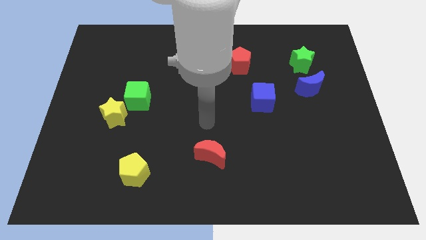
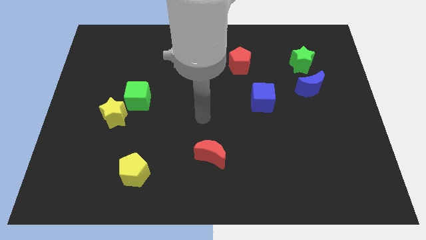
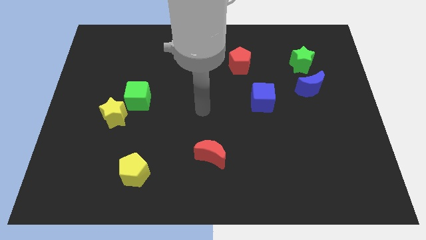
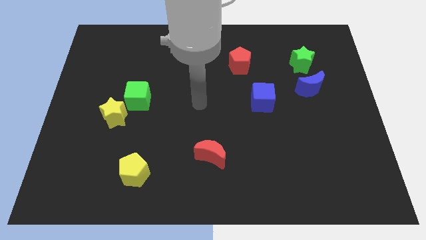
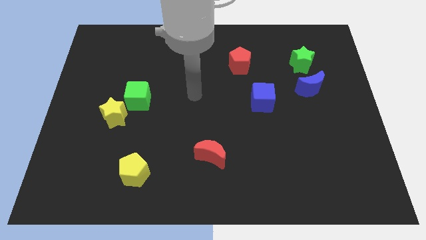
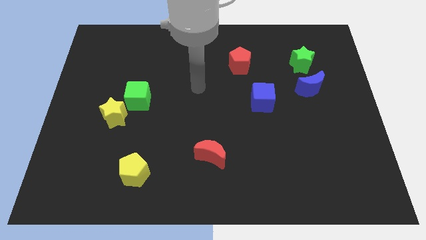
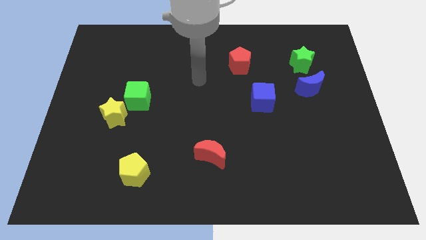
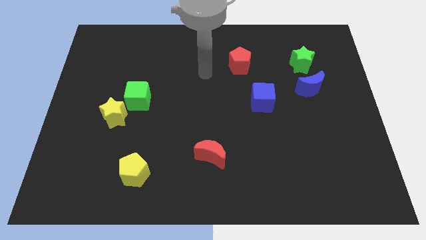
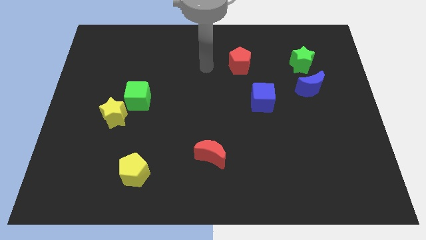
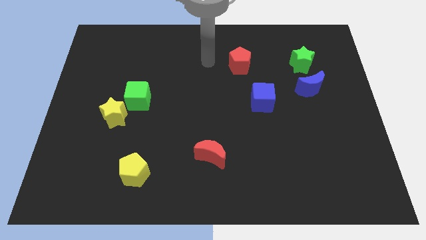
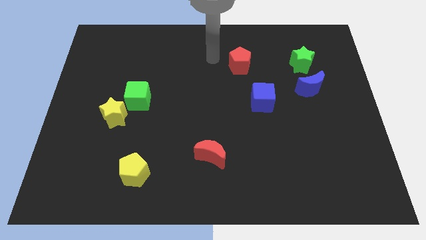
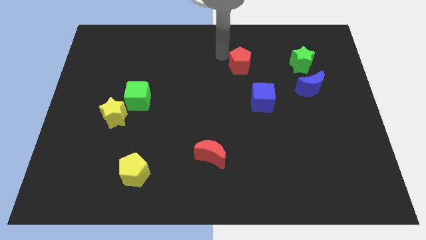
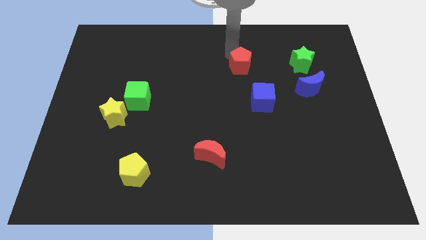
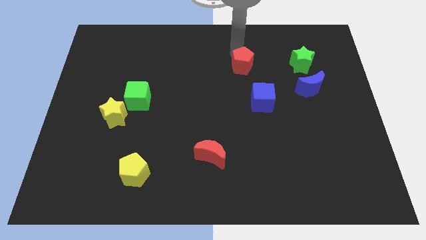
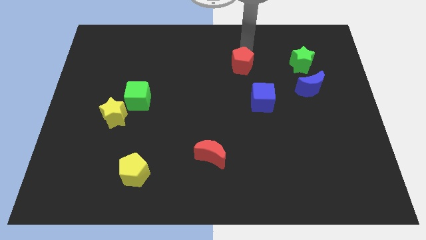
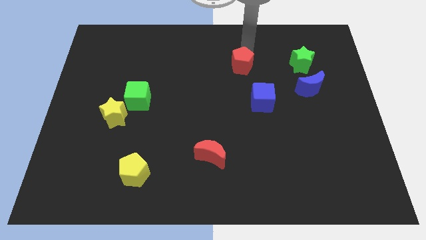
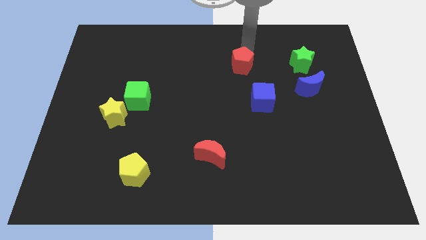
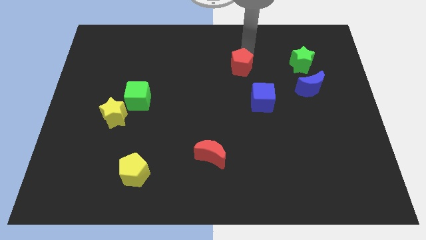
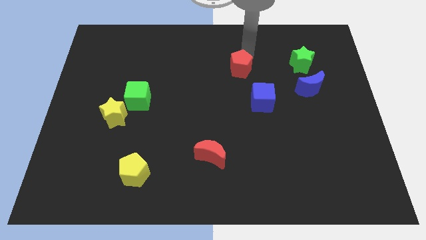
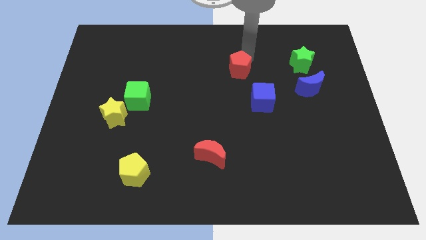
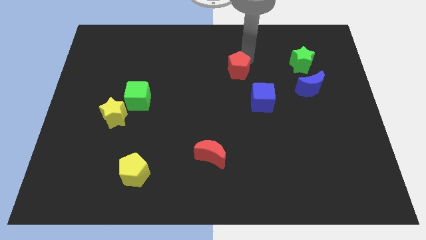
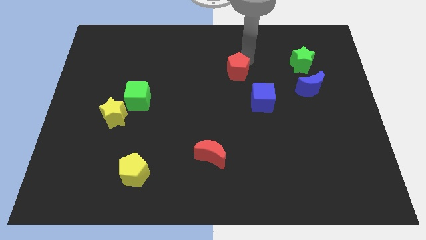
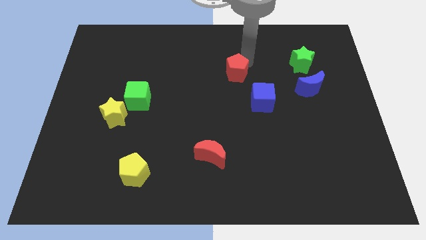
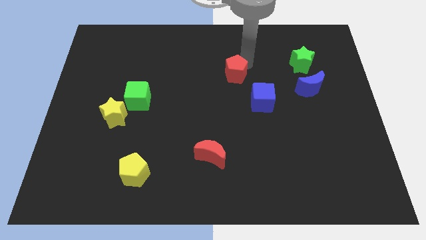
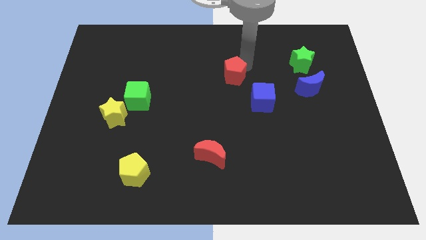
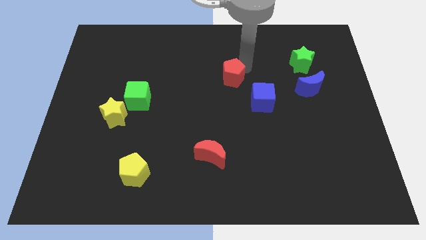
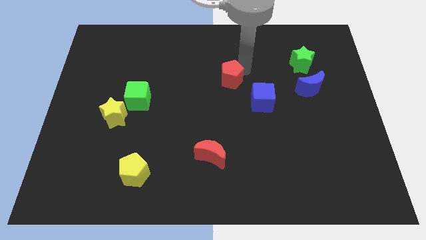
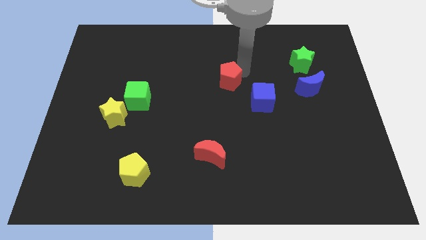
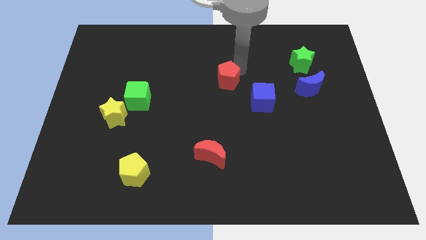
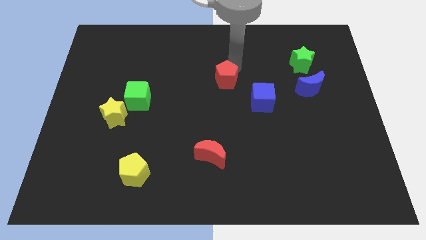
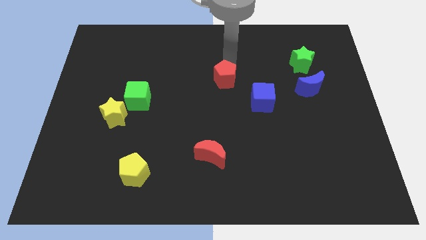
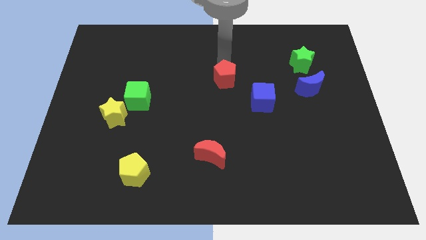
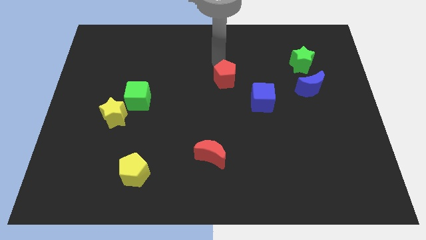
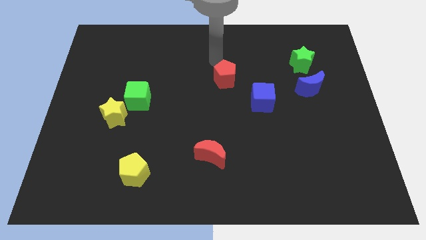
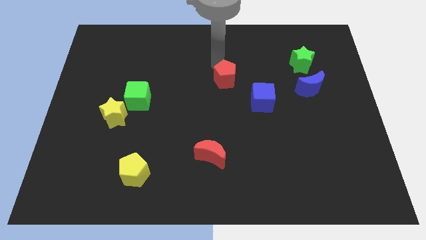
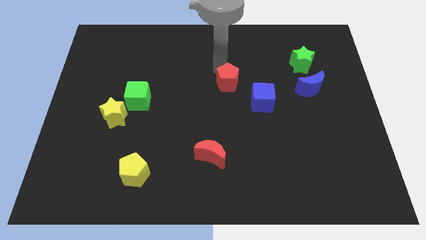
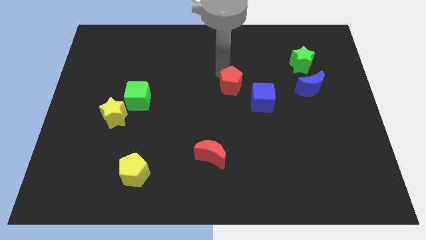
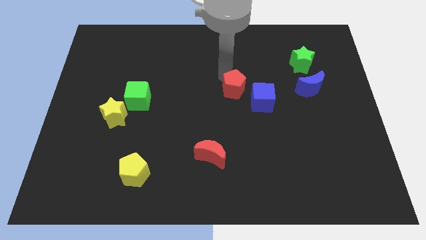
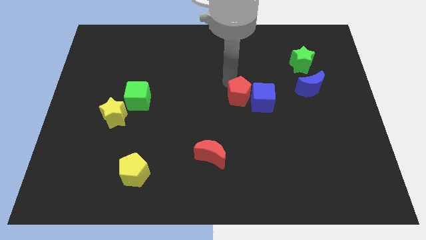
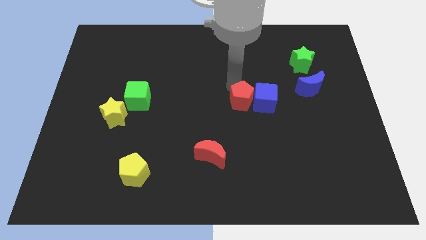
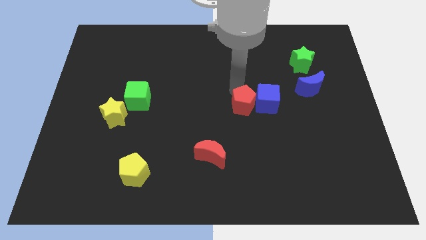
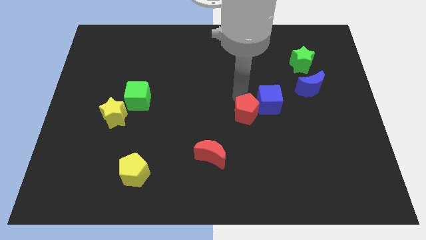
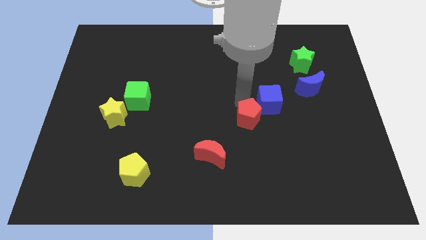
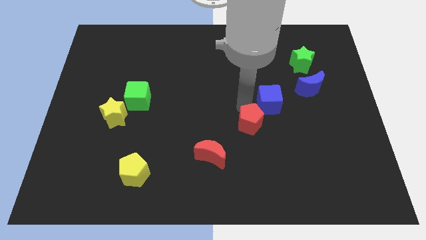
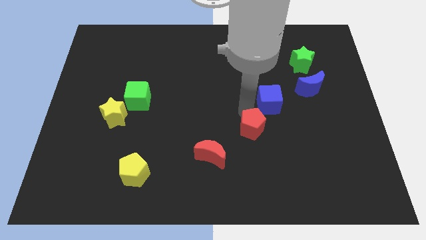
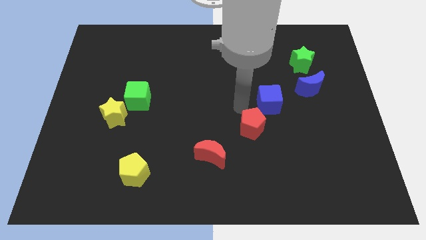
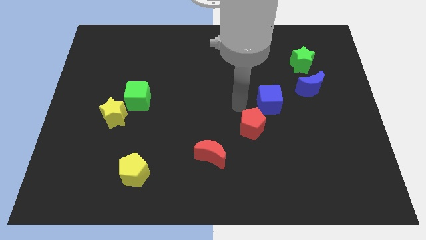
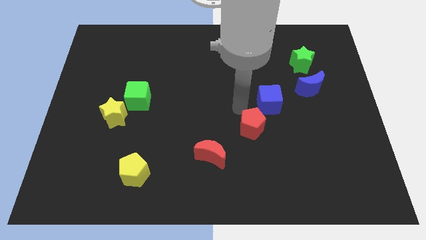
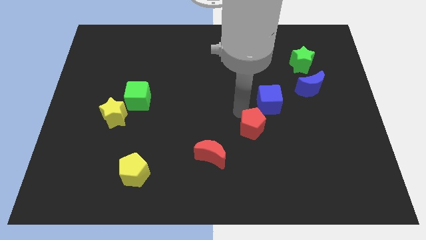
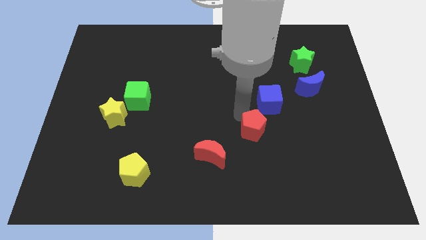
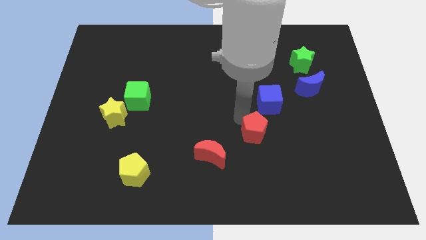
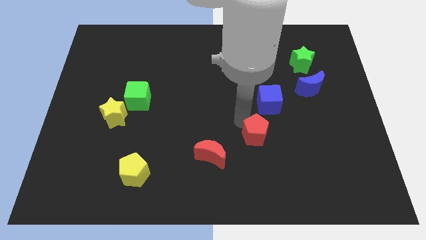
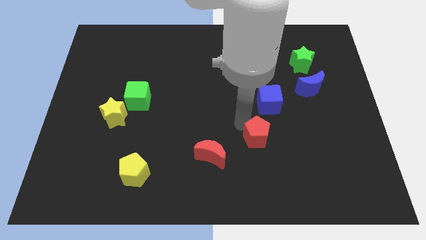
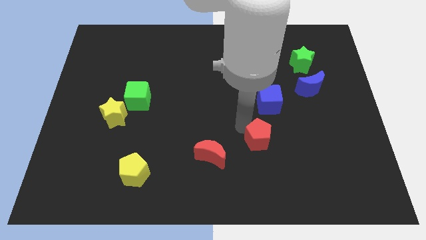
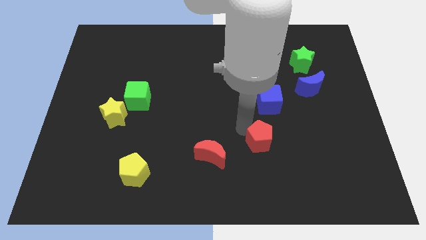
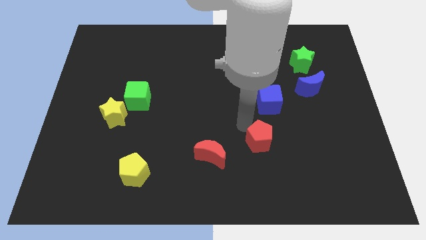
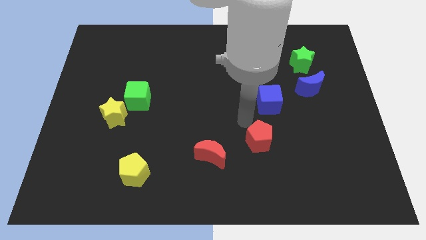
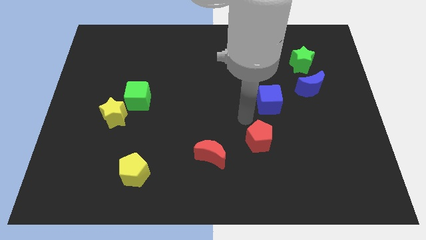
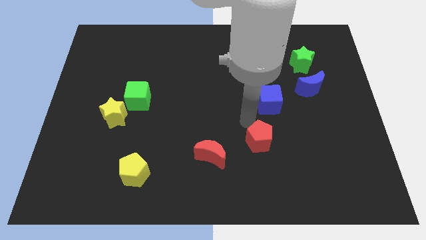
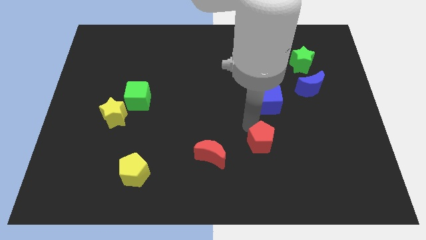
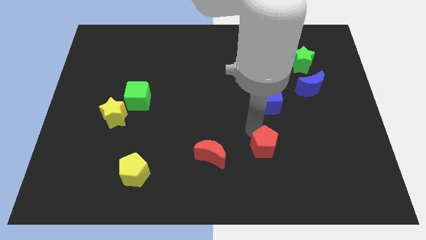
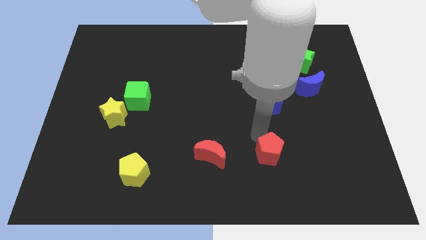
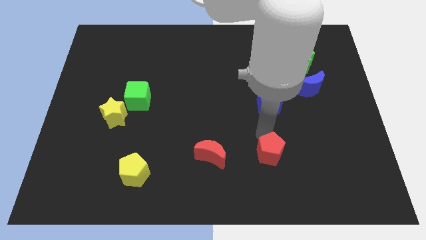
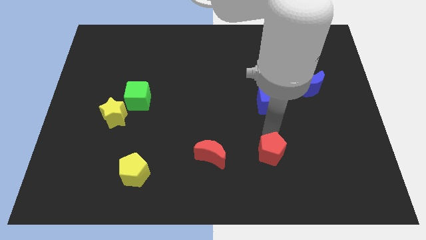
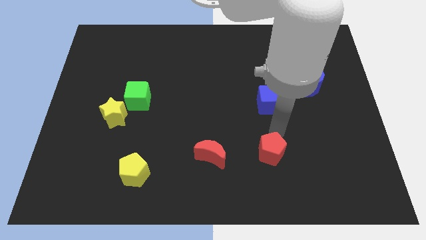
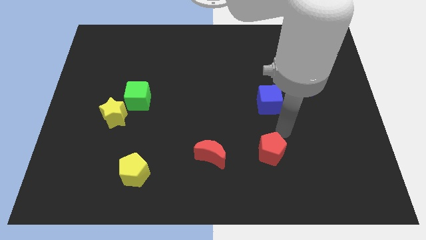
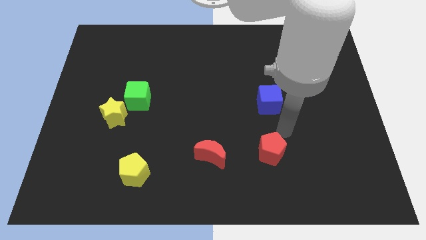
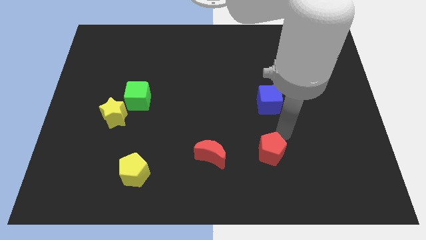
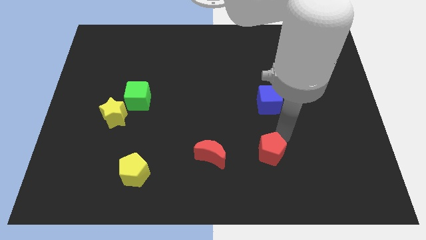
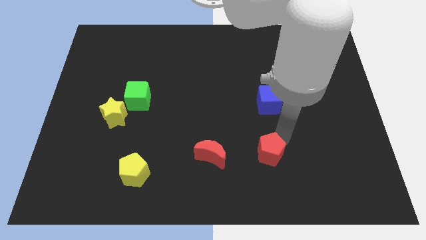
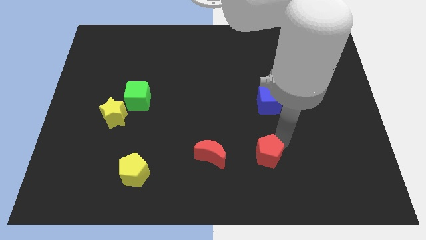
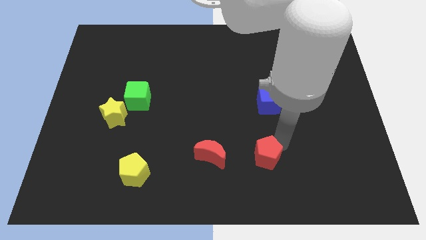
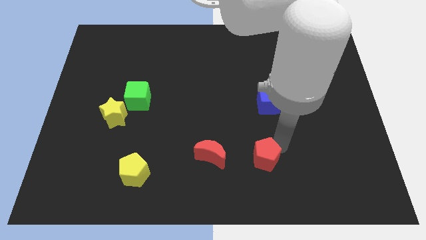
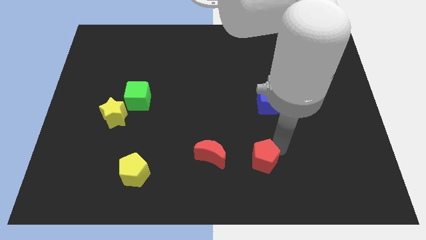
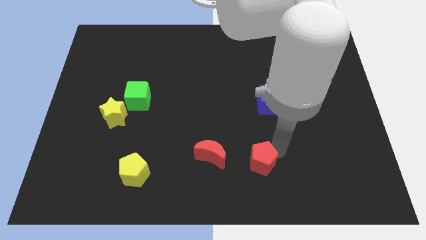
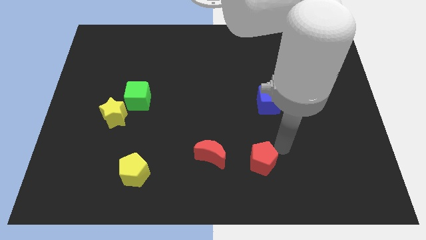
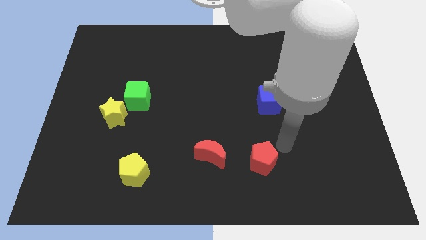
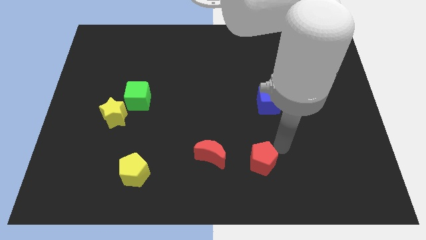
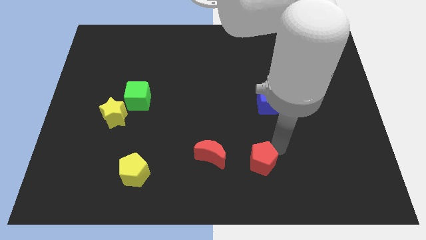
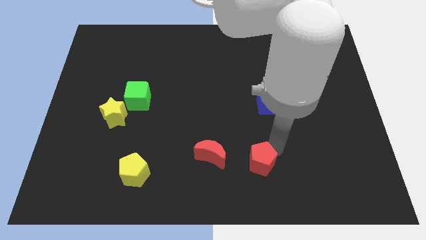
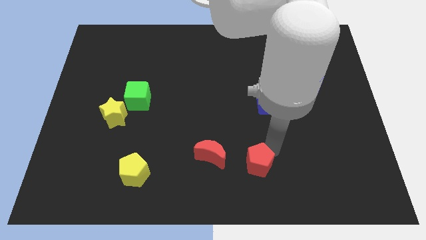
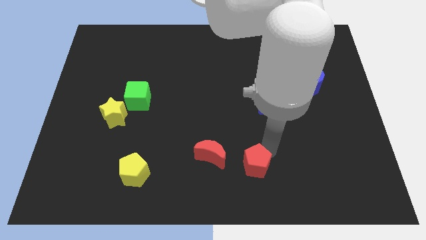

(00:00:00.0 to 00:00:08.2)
slide the red pentagon to the bottom right side of the red moon

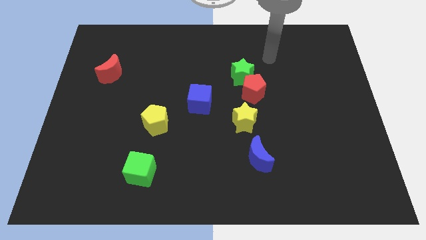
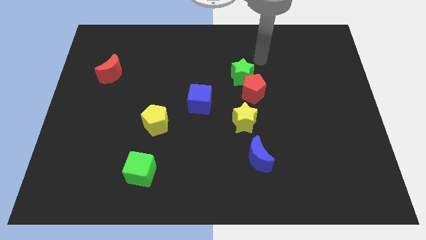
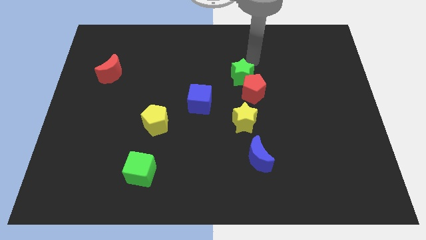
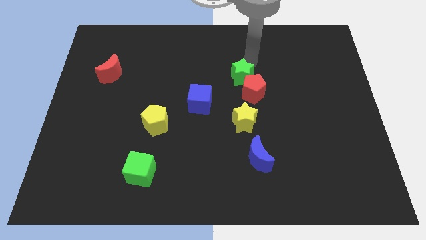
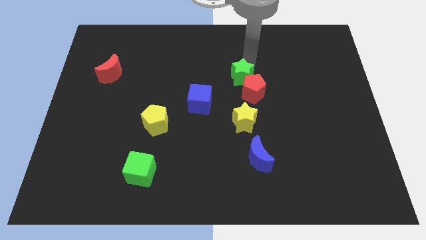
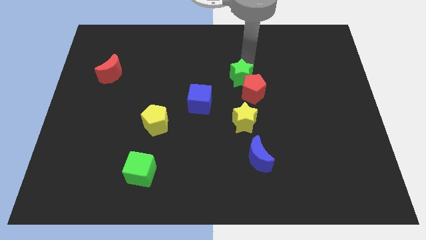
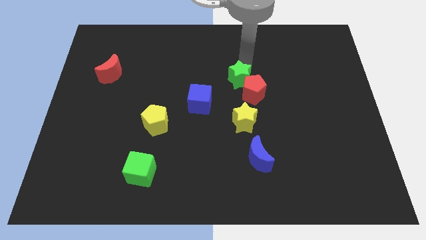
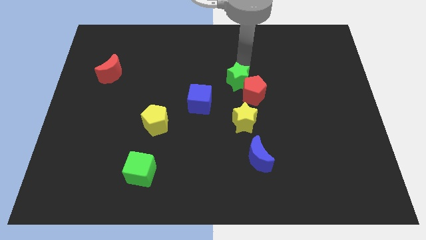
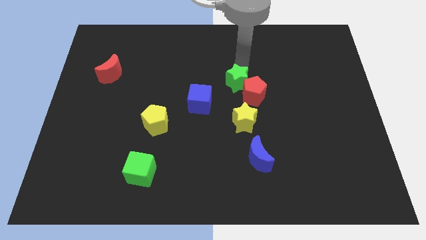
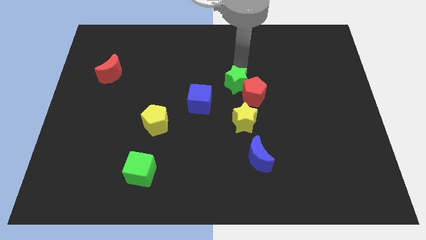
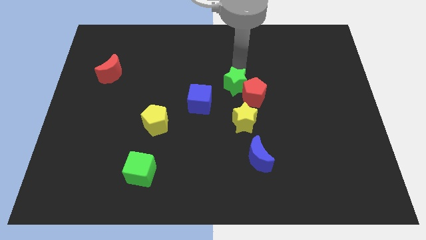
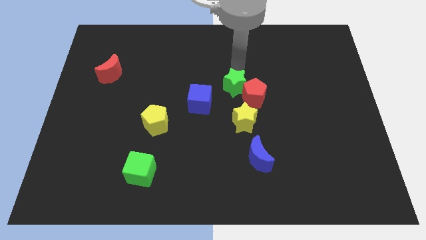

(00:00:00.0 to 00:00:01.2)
put the green star to the right side of the blue cube
